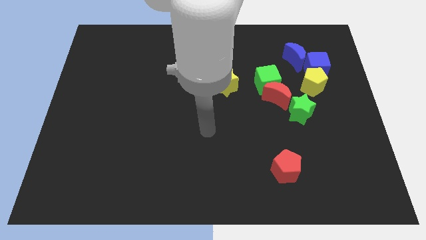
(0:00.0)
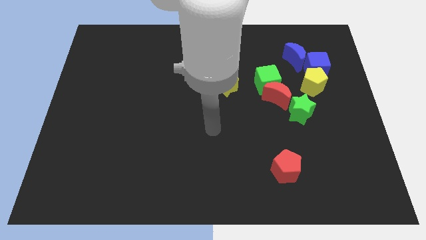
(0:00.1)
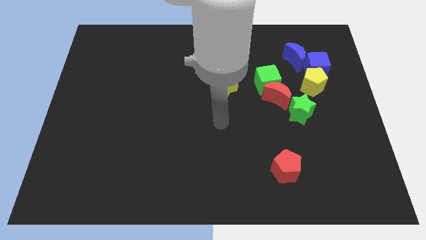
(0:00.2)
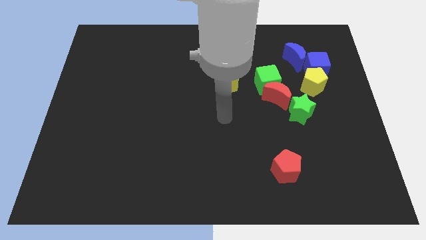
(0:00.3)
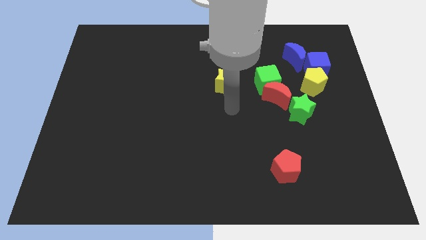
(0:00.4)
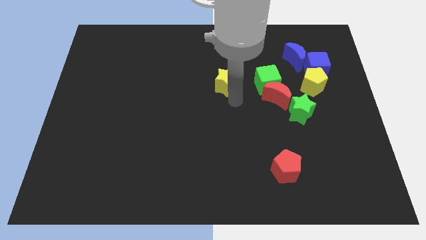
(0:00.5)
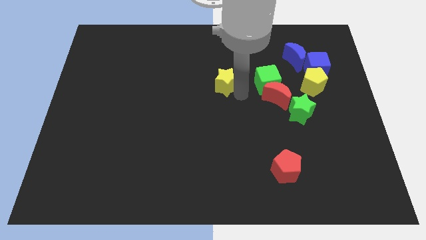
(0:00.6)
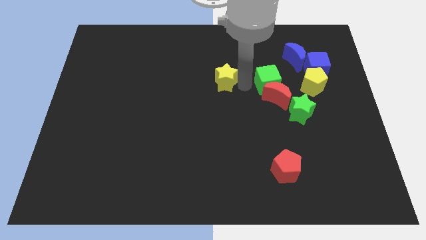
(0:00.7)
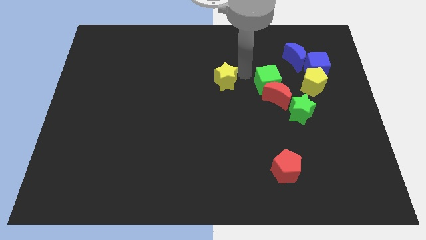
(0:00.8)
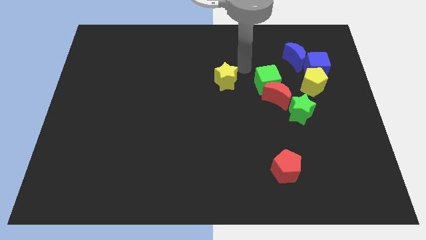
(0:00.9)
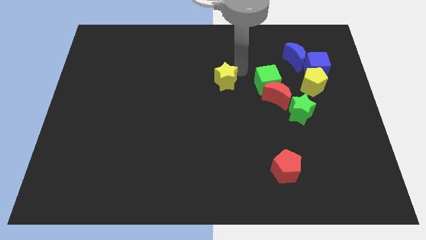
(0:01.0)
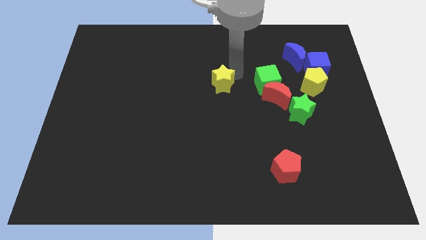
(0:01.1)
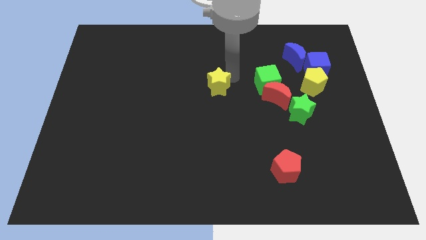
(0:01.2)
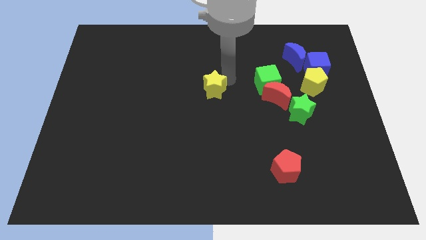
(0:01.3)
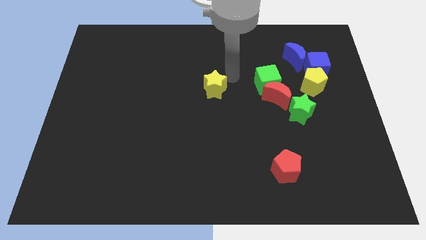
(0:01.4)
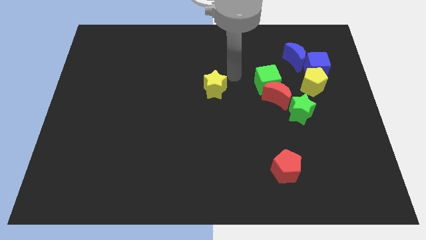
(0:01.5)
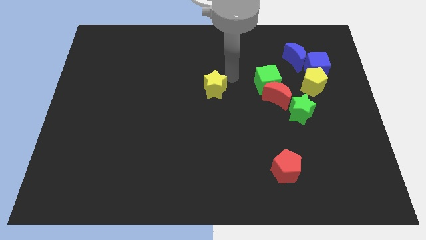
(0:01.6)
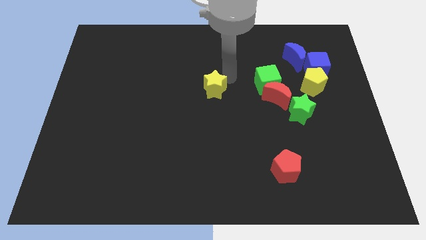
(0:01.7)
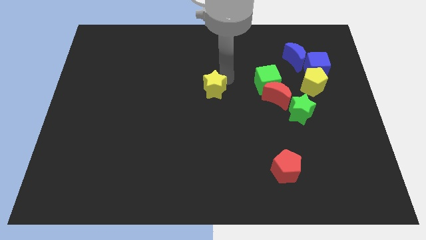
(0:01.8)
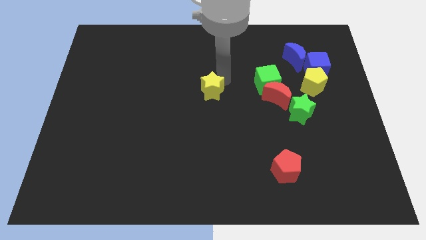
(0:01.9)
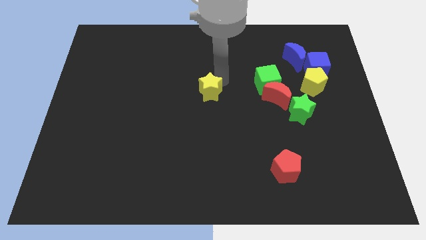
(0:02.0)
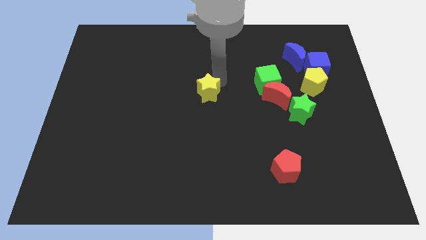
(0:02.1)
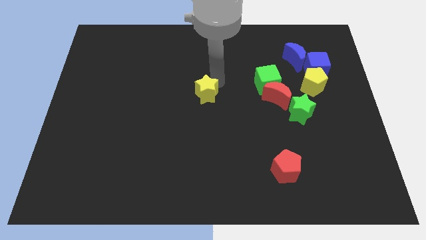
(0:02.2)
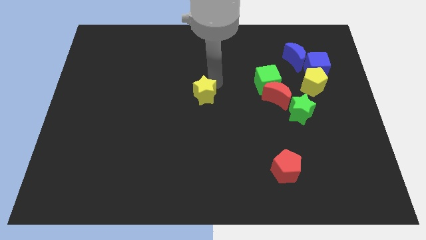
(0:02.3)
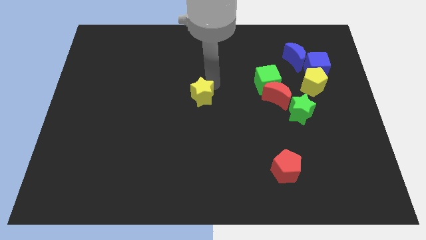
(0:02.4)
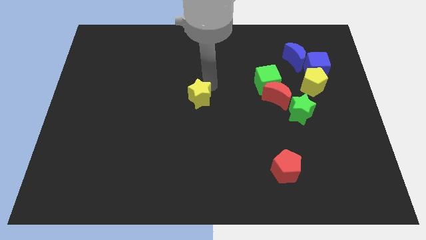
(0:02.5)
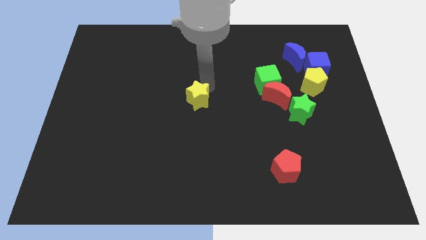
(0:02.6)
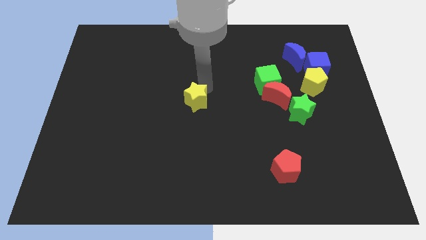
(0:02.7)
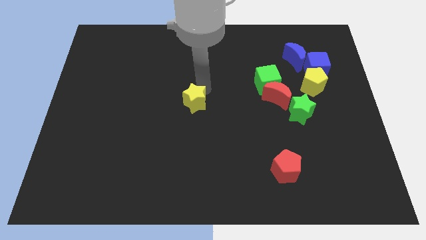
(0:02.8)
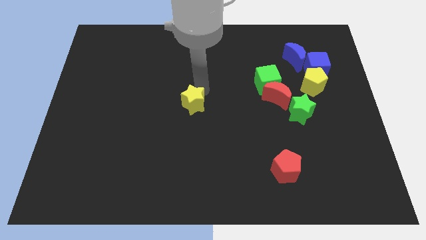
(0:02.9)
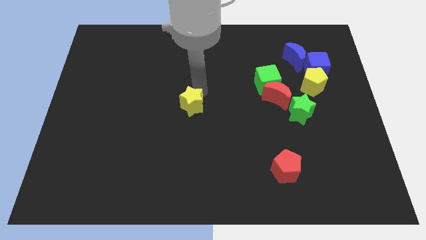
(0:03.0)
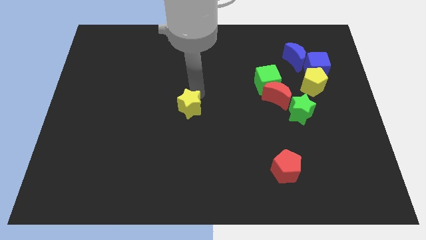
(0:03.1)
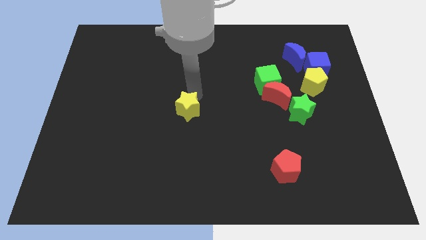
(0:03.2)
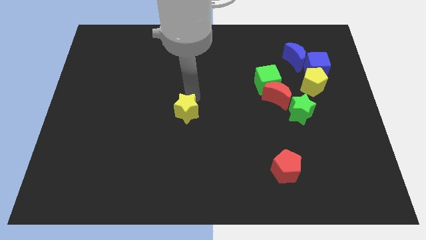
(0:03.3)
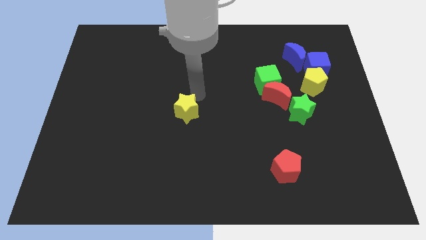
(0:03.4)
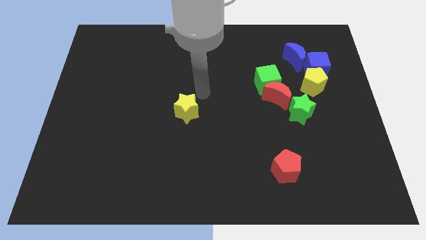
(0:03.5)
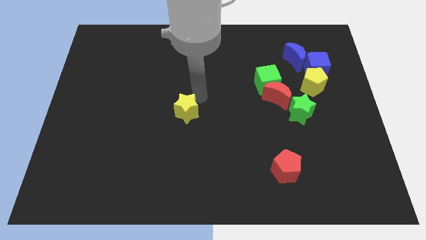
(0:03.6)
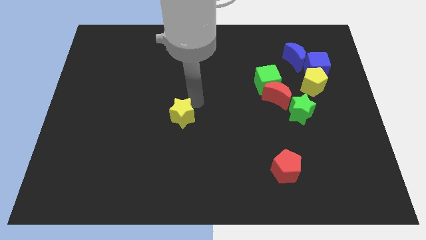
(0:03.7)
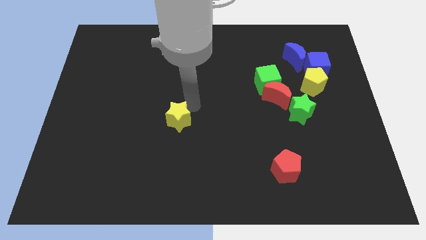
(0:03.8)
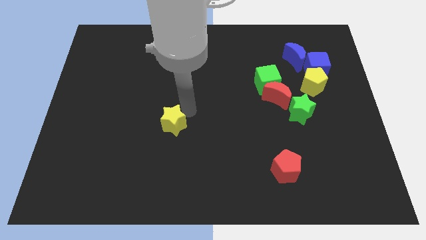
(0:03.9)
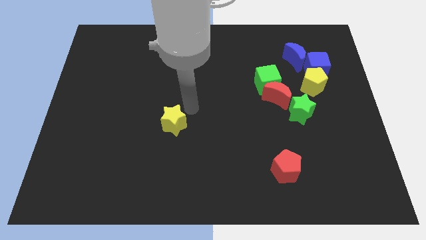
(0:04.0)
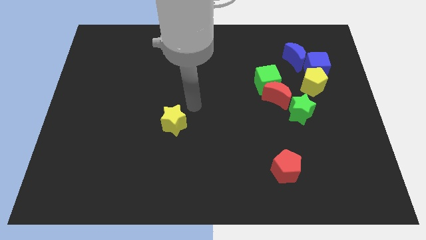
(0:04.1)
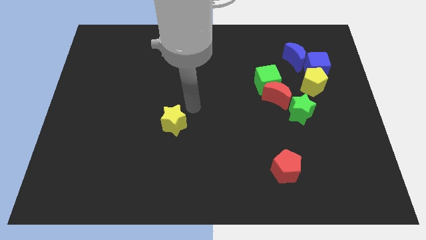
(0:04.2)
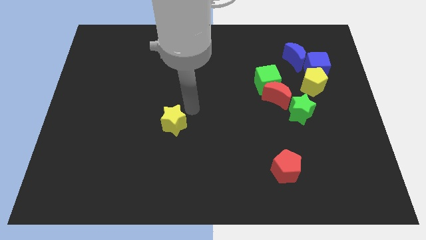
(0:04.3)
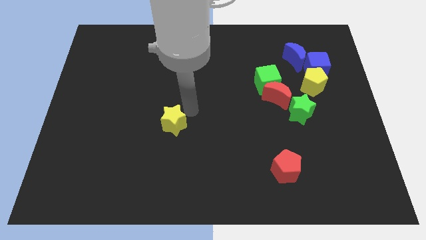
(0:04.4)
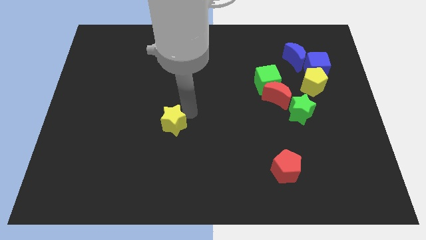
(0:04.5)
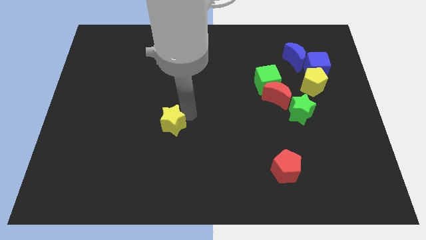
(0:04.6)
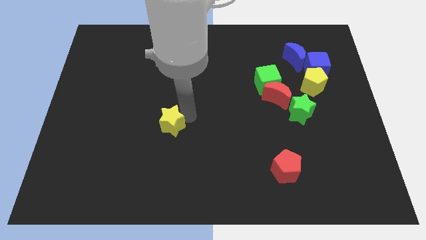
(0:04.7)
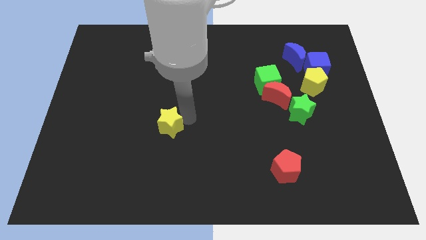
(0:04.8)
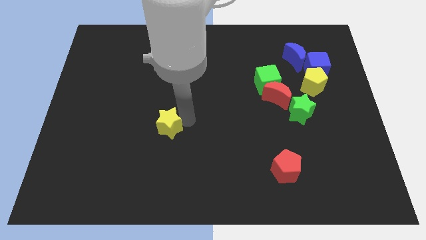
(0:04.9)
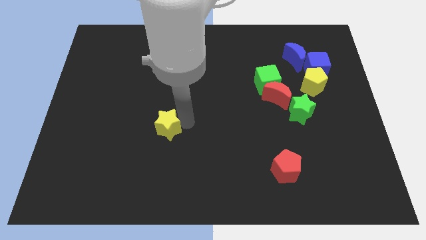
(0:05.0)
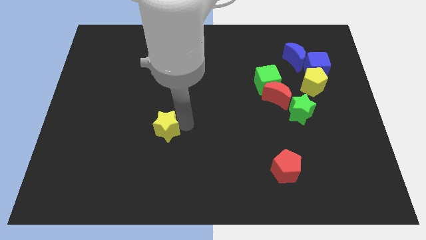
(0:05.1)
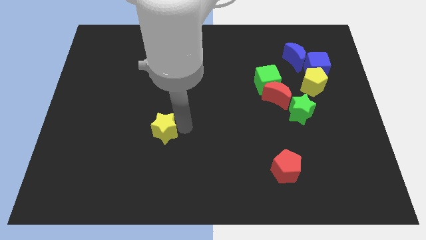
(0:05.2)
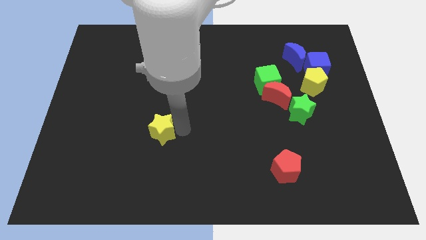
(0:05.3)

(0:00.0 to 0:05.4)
slide the yellow star down and left

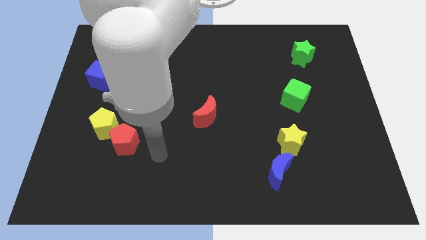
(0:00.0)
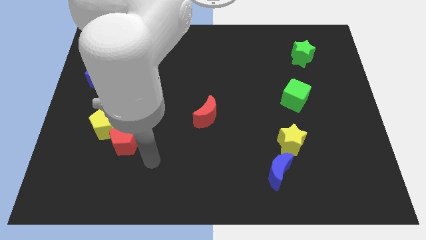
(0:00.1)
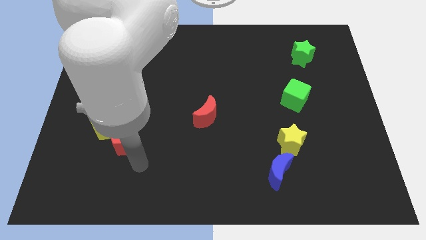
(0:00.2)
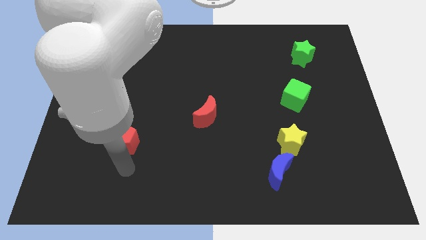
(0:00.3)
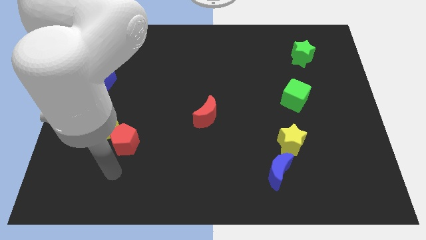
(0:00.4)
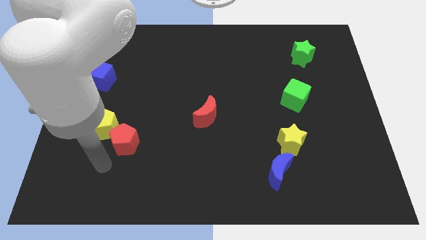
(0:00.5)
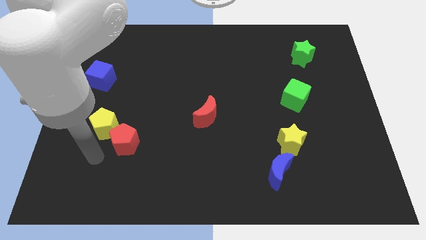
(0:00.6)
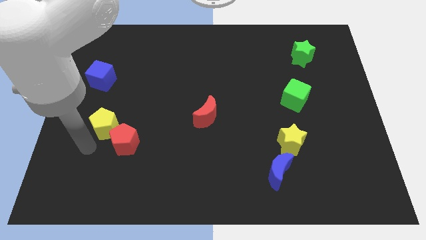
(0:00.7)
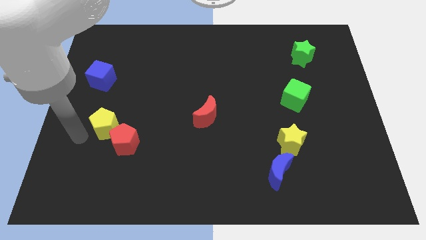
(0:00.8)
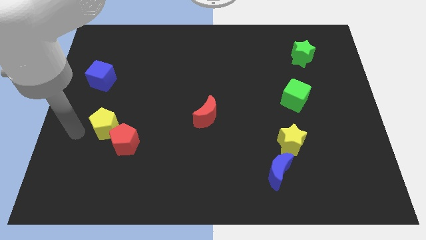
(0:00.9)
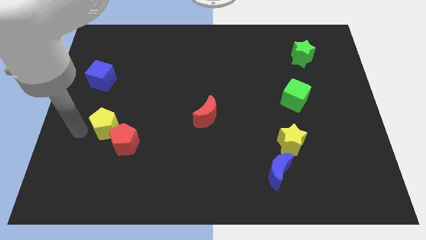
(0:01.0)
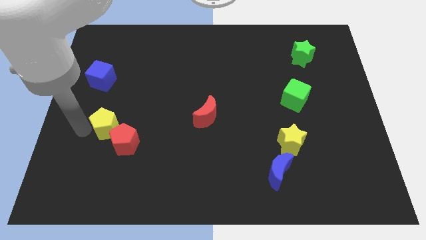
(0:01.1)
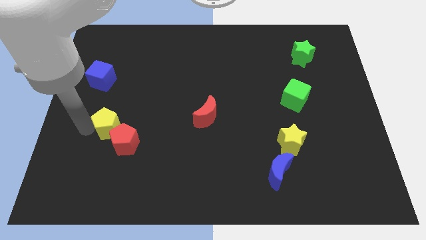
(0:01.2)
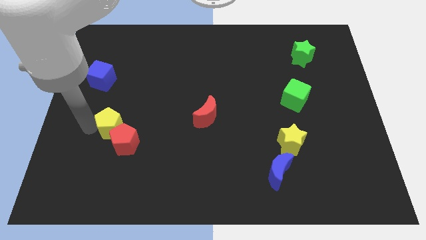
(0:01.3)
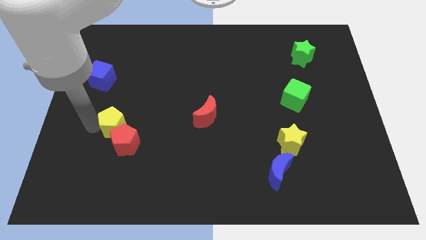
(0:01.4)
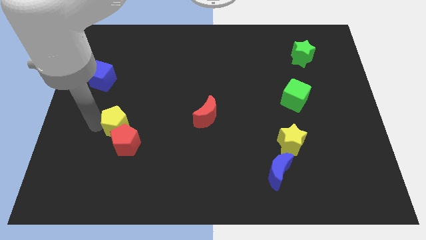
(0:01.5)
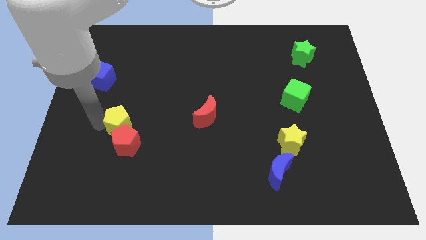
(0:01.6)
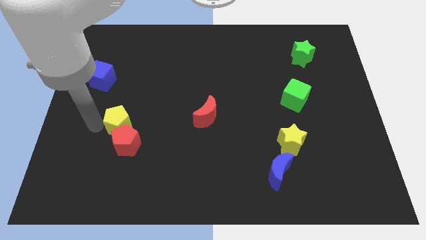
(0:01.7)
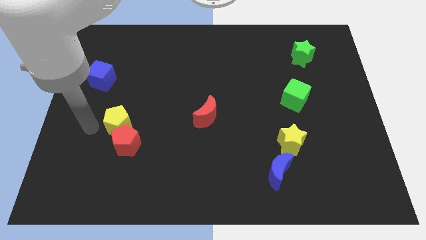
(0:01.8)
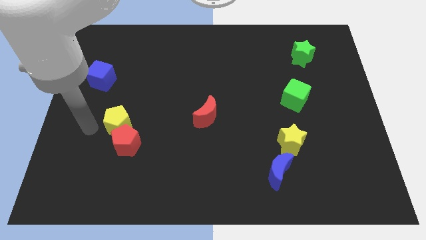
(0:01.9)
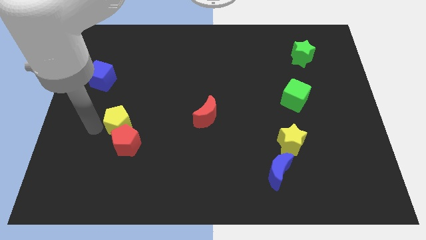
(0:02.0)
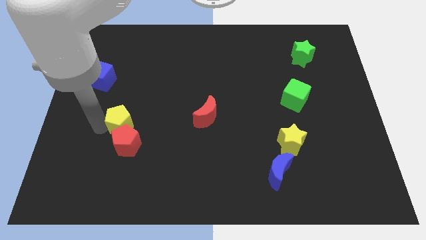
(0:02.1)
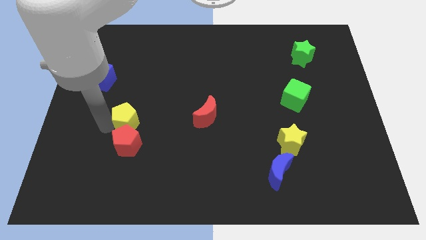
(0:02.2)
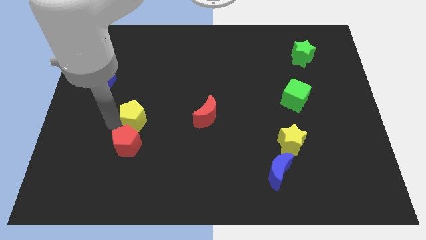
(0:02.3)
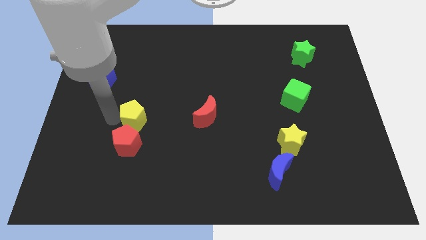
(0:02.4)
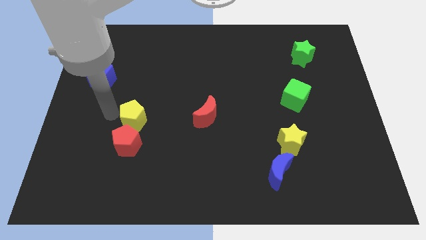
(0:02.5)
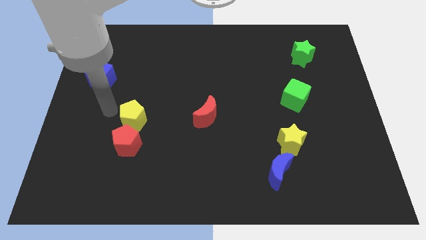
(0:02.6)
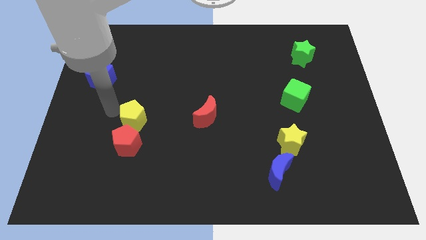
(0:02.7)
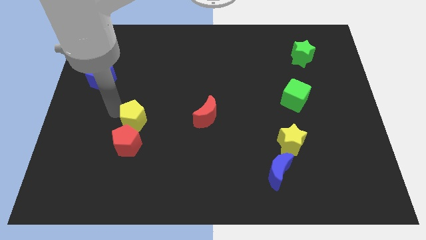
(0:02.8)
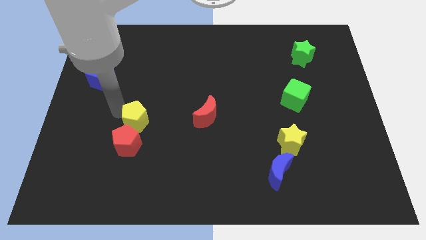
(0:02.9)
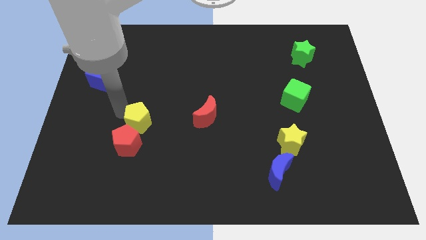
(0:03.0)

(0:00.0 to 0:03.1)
slide the yellow pentagon right somewhat
